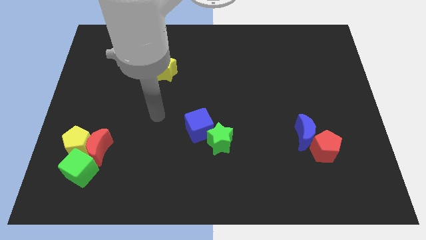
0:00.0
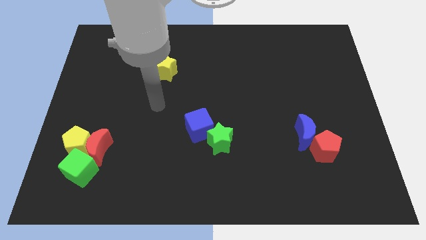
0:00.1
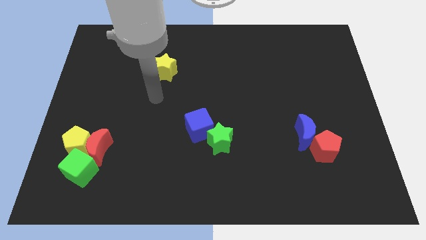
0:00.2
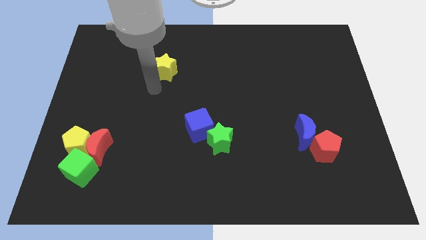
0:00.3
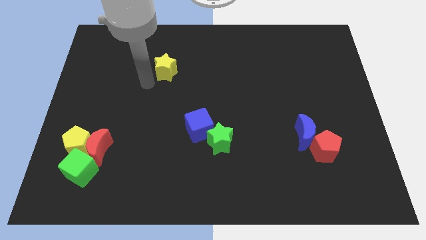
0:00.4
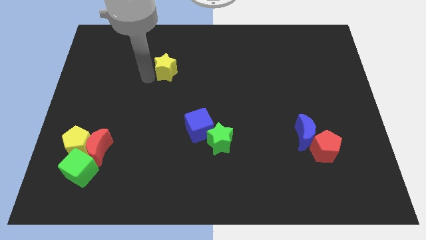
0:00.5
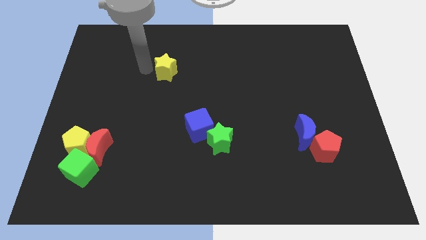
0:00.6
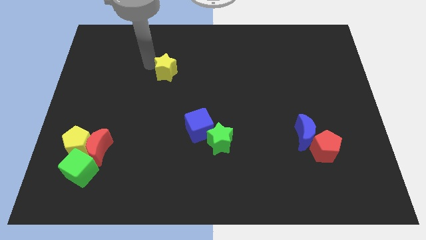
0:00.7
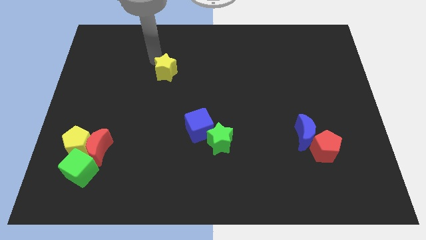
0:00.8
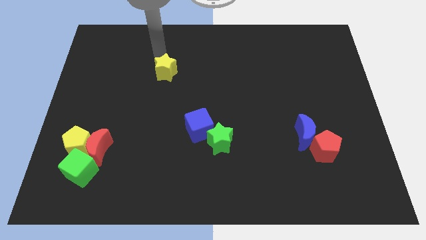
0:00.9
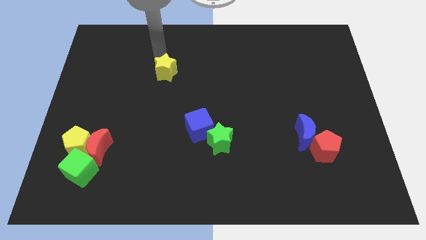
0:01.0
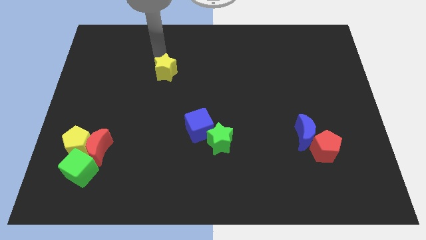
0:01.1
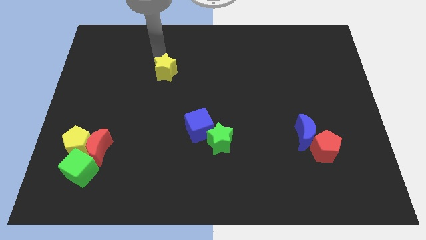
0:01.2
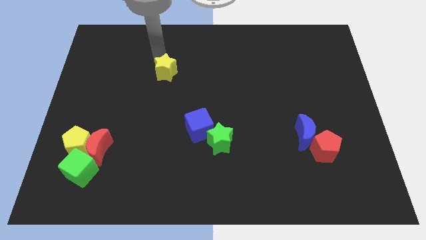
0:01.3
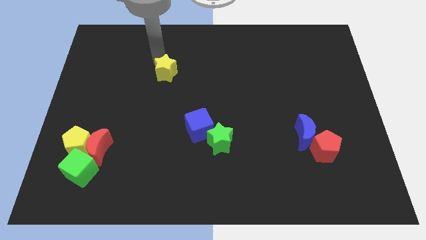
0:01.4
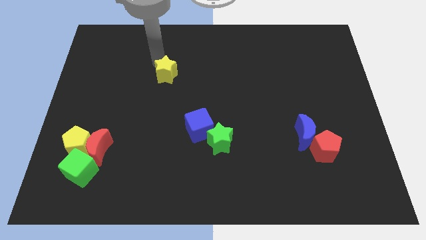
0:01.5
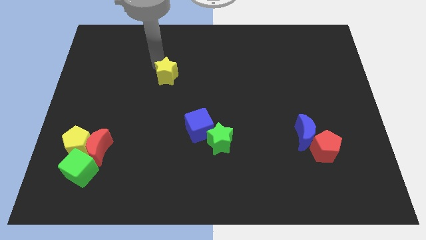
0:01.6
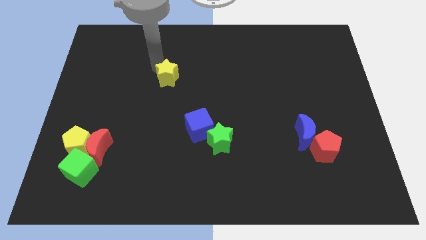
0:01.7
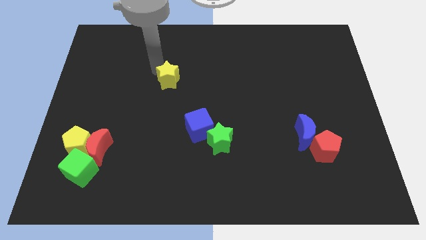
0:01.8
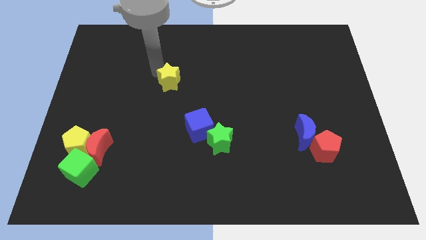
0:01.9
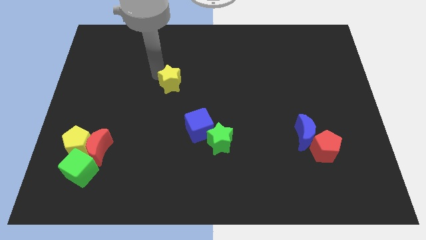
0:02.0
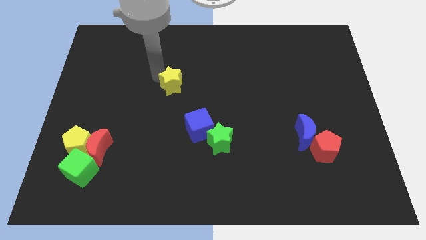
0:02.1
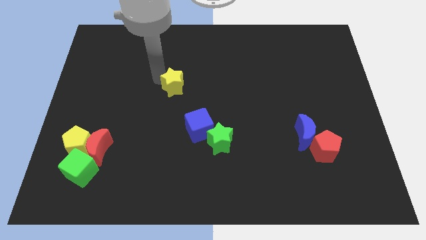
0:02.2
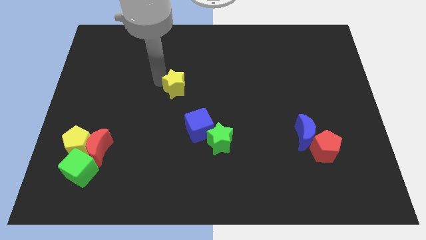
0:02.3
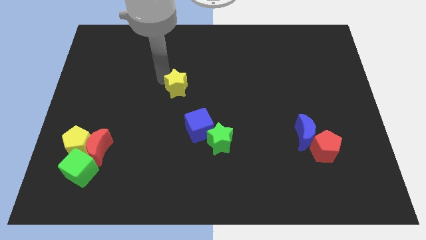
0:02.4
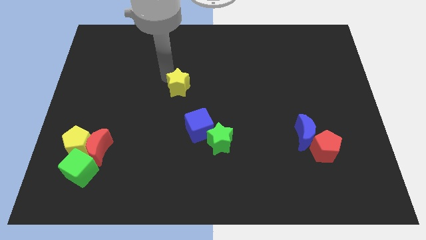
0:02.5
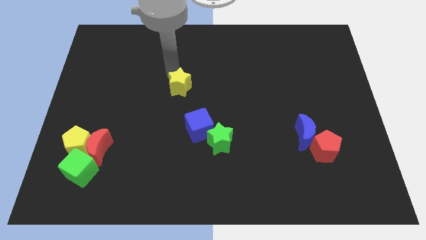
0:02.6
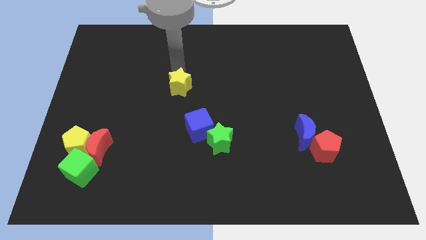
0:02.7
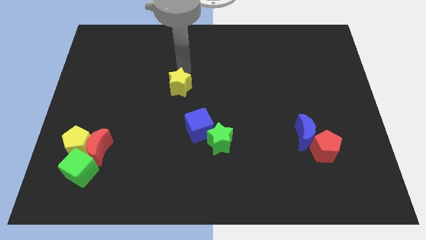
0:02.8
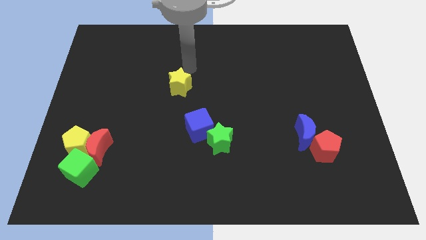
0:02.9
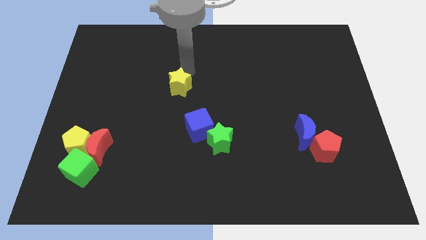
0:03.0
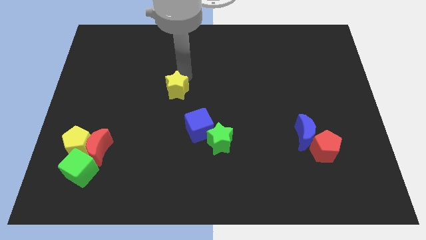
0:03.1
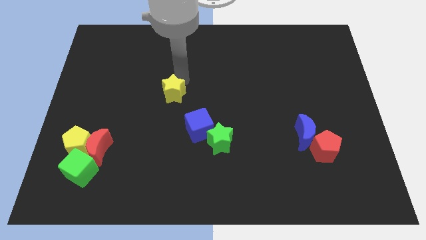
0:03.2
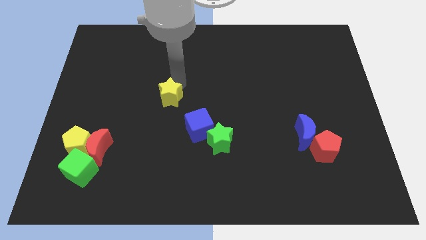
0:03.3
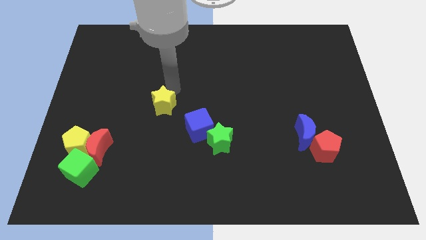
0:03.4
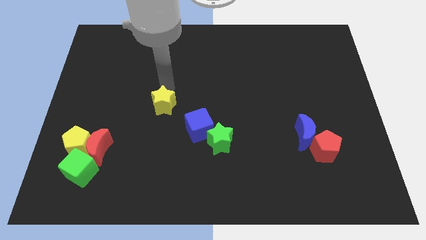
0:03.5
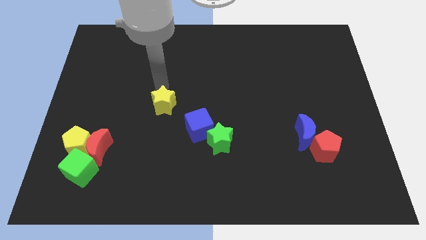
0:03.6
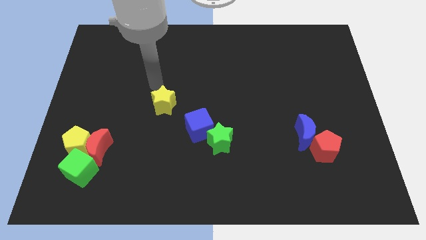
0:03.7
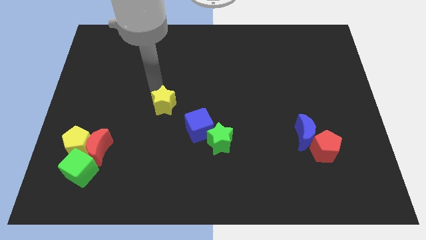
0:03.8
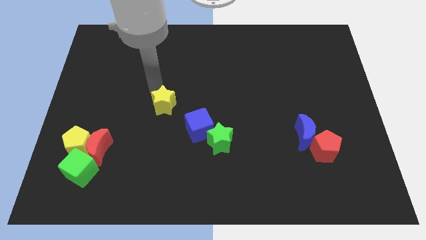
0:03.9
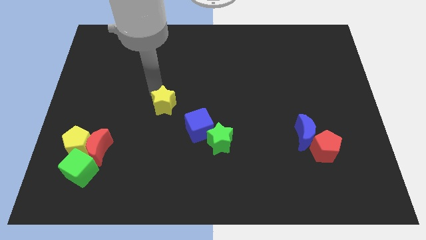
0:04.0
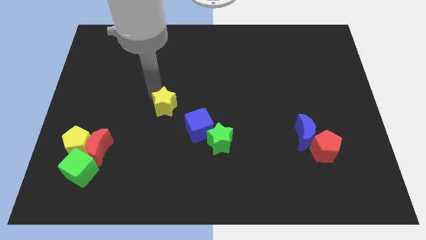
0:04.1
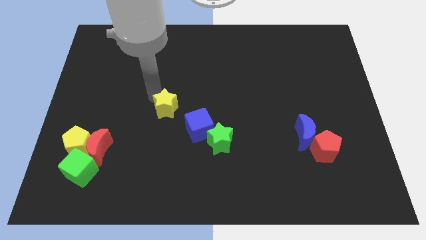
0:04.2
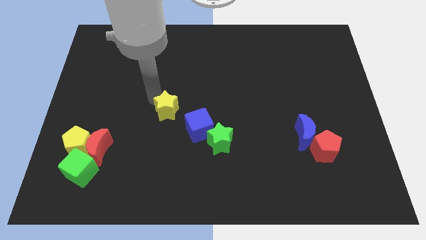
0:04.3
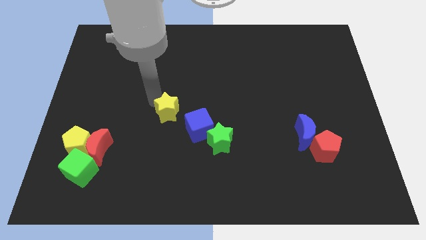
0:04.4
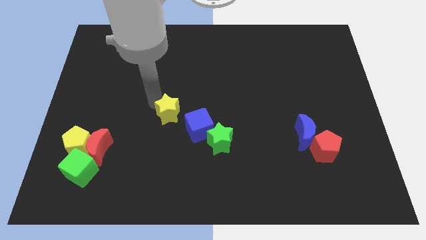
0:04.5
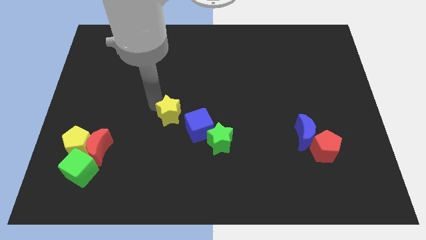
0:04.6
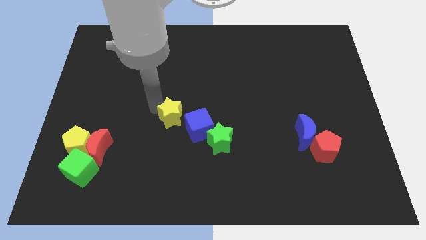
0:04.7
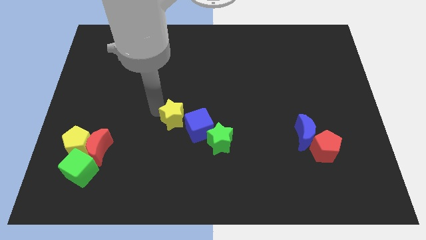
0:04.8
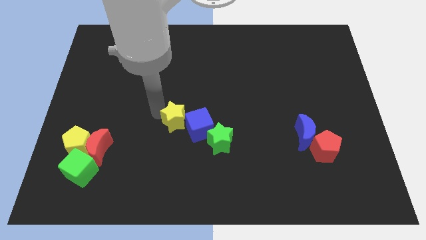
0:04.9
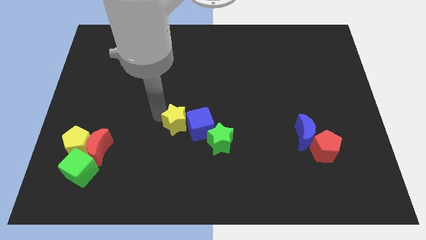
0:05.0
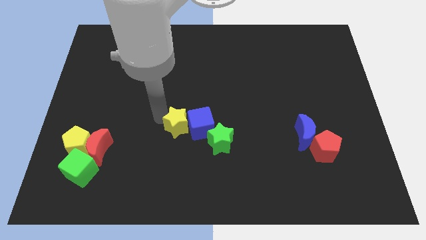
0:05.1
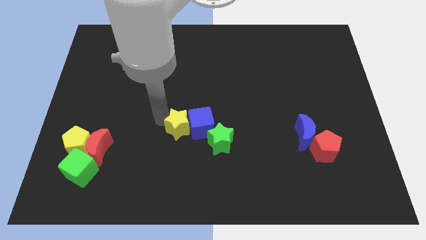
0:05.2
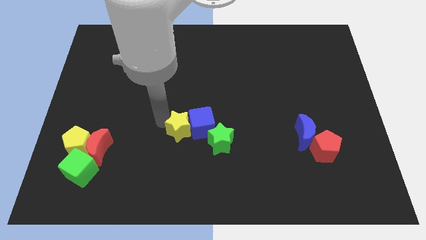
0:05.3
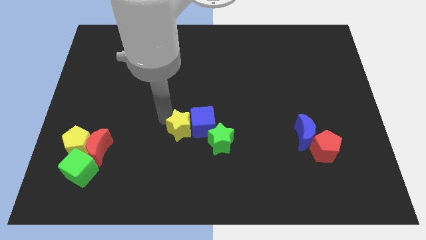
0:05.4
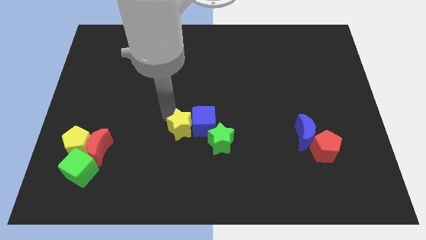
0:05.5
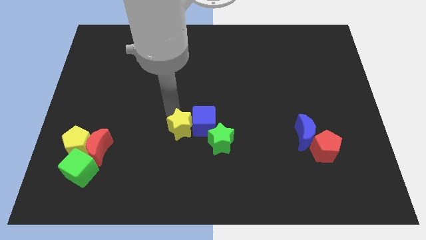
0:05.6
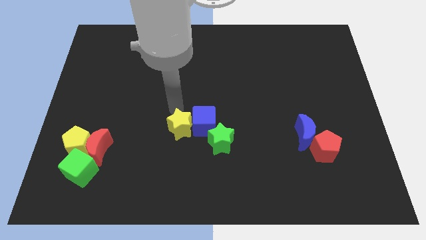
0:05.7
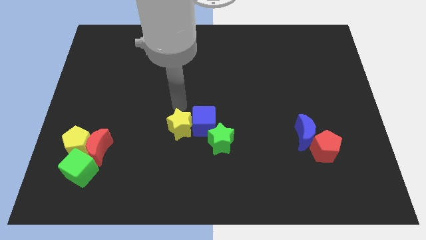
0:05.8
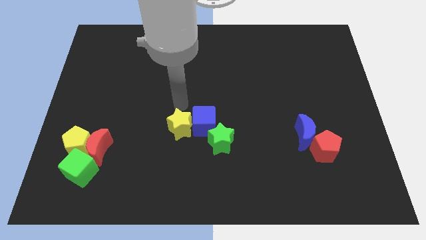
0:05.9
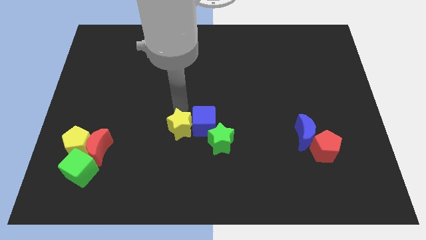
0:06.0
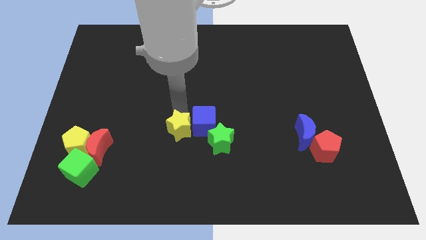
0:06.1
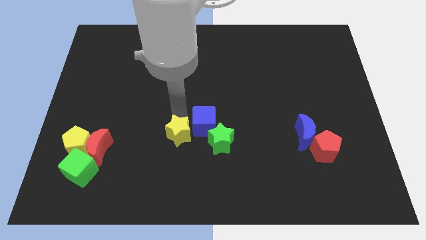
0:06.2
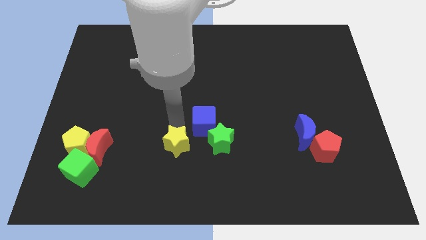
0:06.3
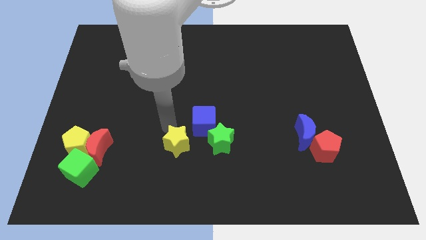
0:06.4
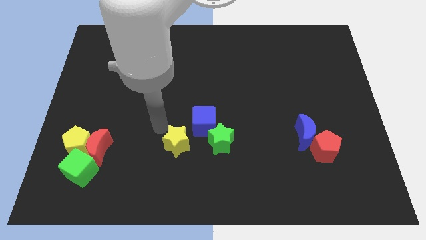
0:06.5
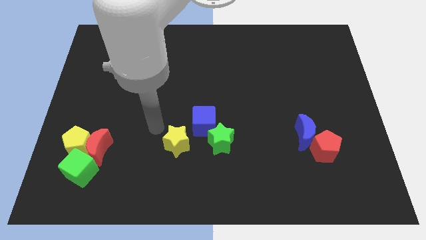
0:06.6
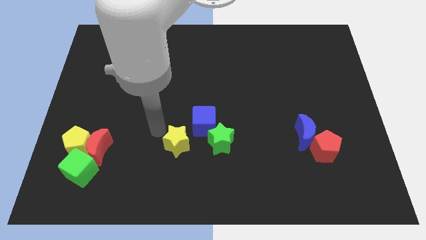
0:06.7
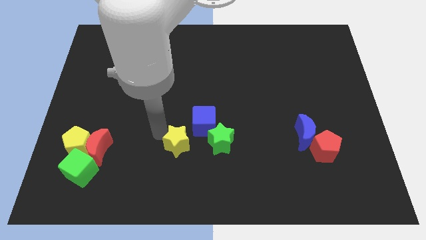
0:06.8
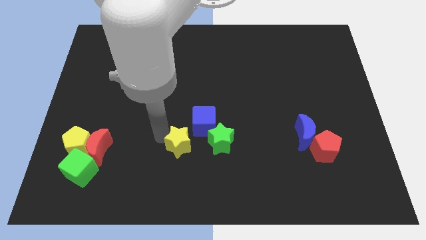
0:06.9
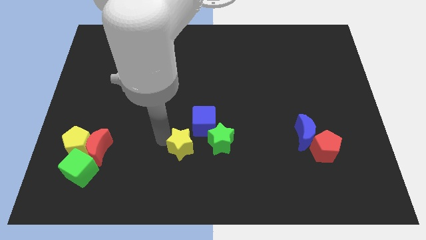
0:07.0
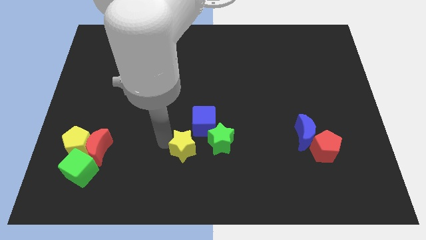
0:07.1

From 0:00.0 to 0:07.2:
move the yellow star to the bottom of the blue cube
